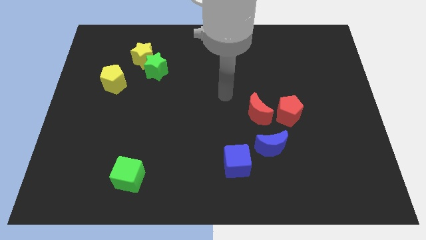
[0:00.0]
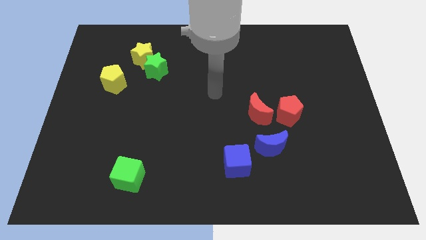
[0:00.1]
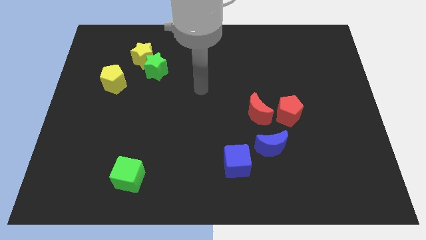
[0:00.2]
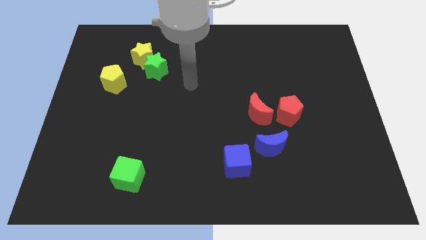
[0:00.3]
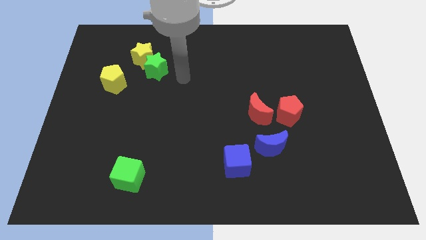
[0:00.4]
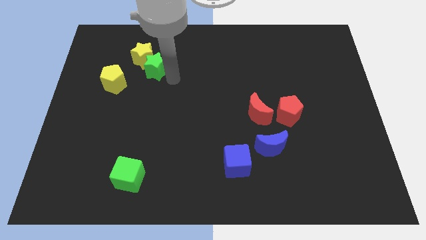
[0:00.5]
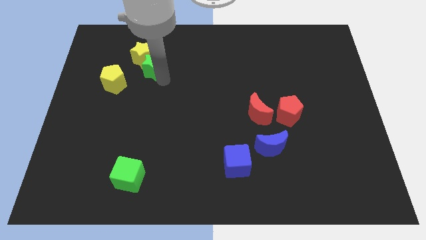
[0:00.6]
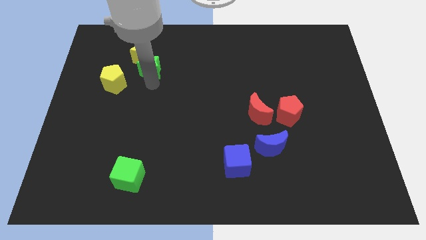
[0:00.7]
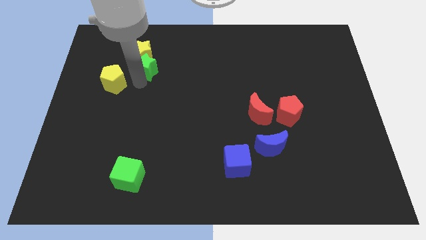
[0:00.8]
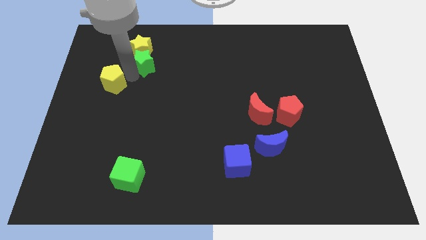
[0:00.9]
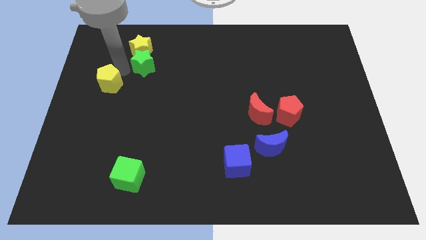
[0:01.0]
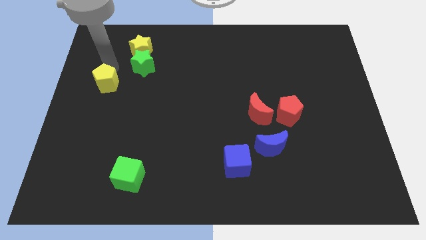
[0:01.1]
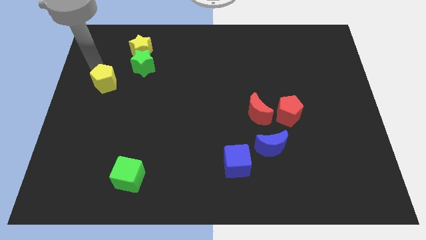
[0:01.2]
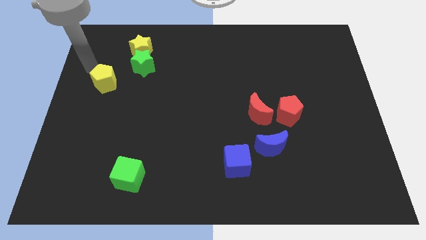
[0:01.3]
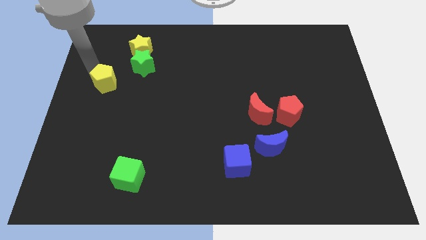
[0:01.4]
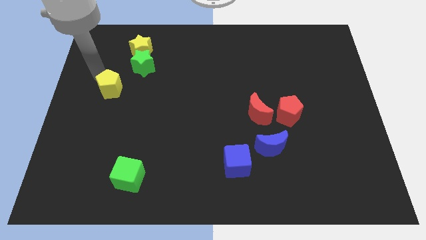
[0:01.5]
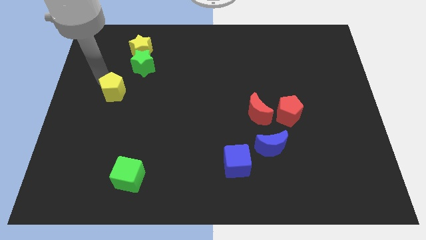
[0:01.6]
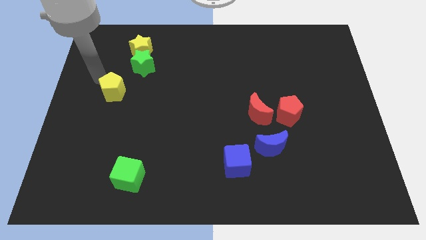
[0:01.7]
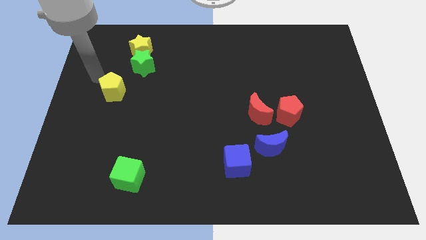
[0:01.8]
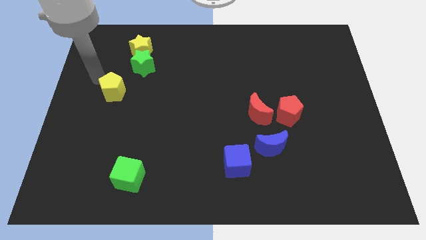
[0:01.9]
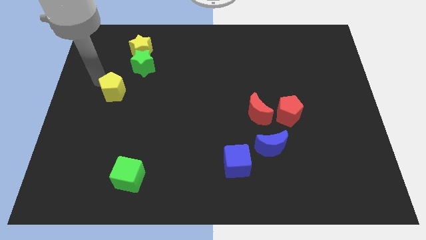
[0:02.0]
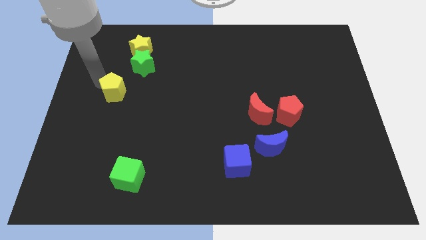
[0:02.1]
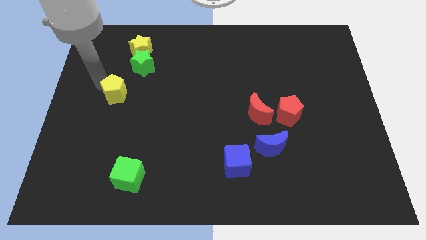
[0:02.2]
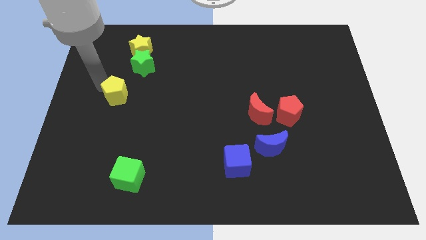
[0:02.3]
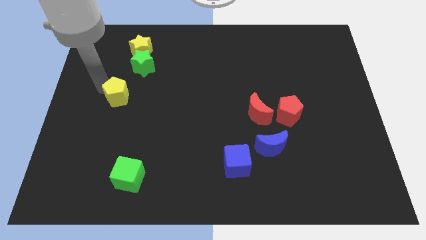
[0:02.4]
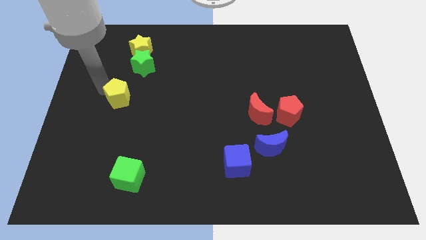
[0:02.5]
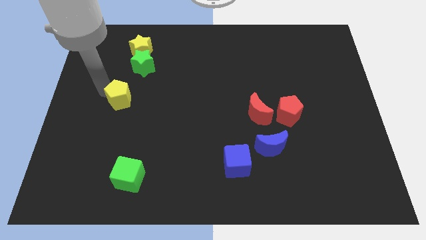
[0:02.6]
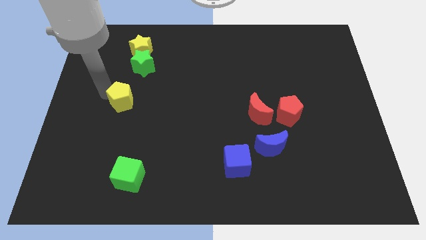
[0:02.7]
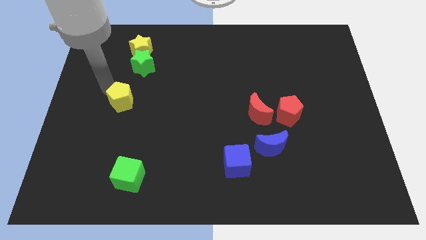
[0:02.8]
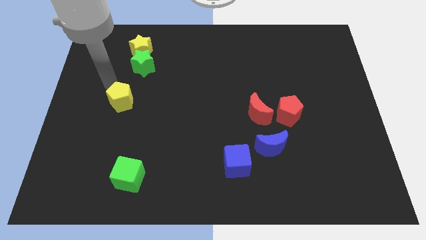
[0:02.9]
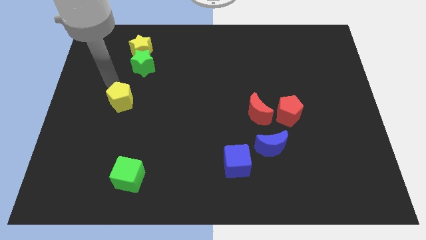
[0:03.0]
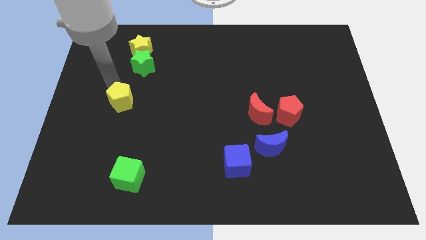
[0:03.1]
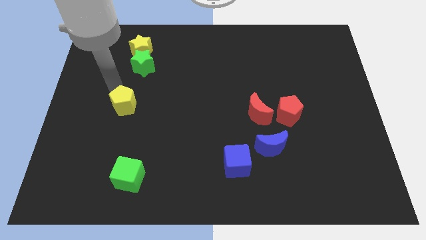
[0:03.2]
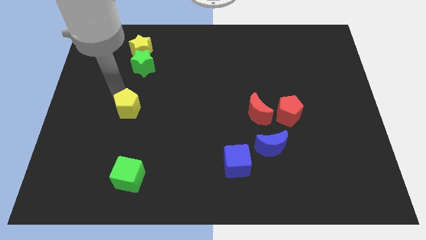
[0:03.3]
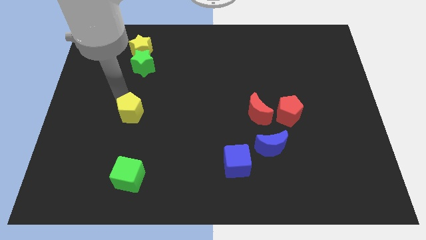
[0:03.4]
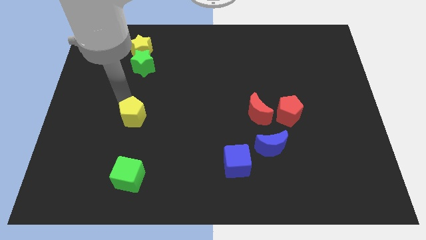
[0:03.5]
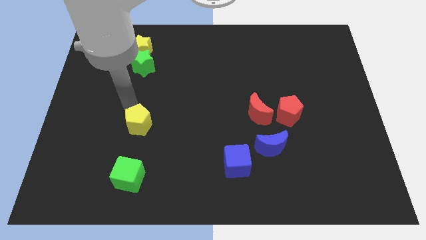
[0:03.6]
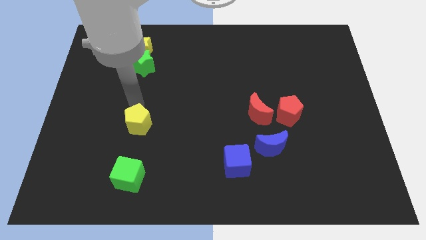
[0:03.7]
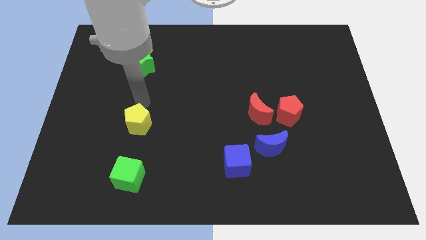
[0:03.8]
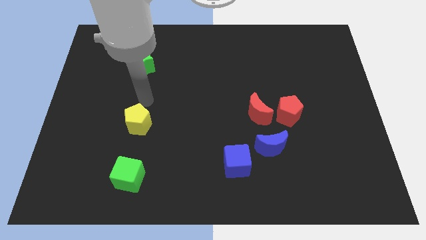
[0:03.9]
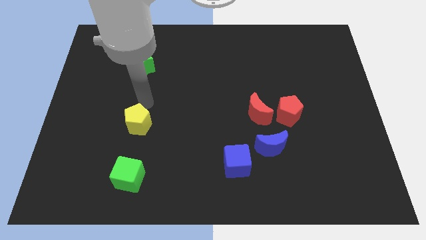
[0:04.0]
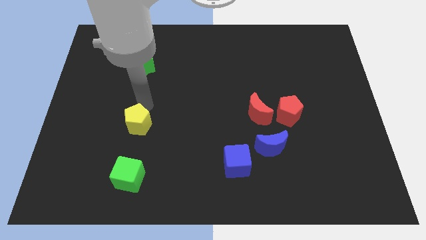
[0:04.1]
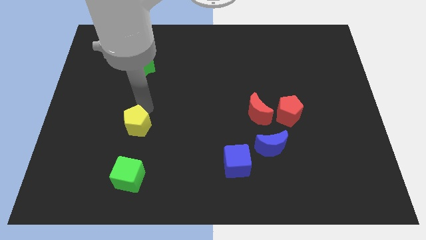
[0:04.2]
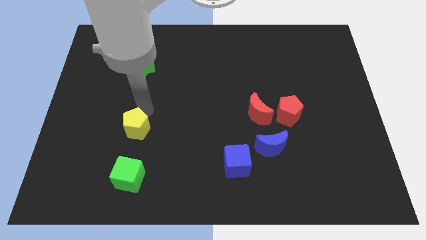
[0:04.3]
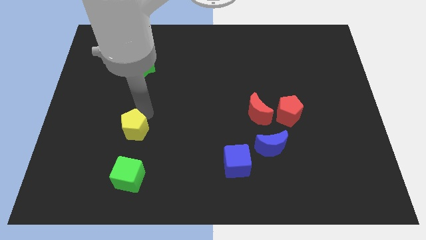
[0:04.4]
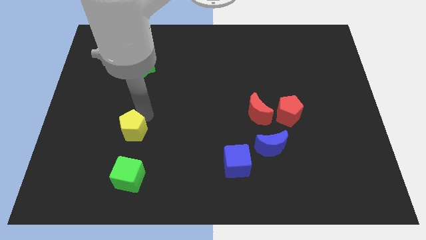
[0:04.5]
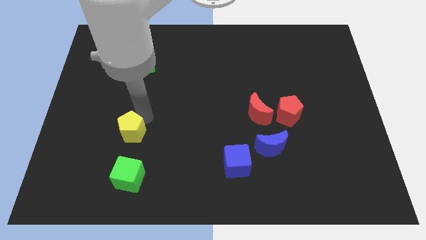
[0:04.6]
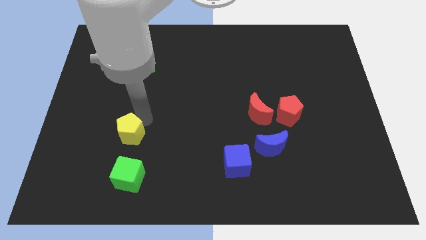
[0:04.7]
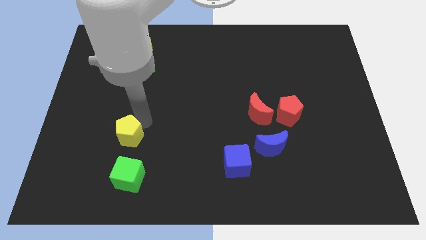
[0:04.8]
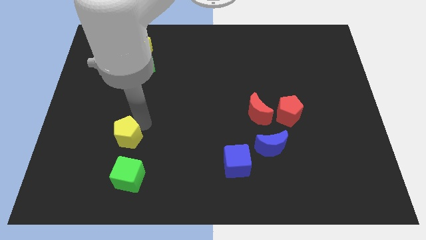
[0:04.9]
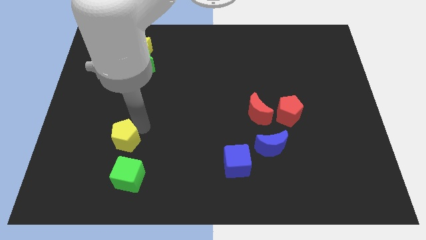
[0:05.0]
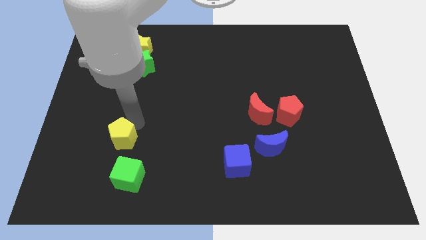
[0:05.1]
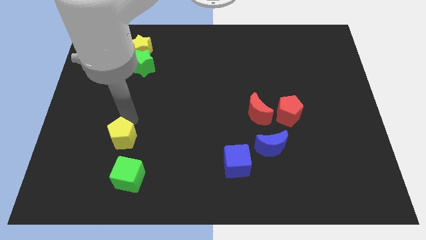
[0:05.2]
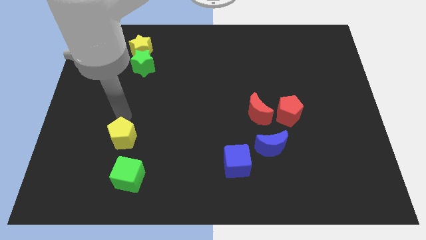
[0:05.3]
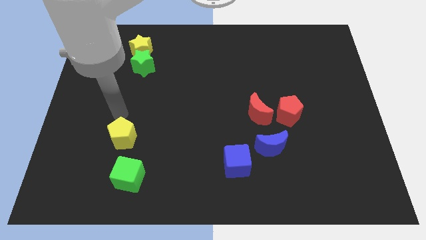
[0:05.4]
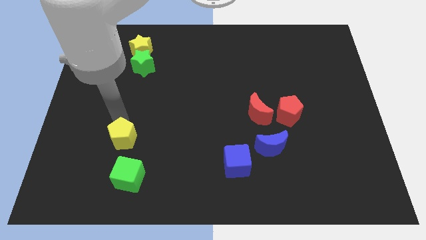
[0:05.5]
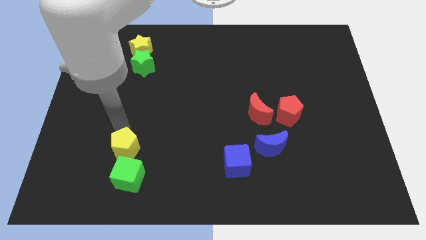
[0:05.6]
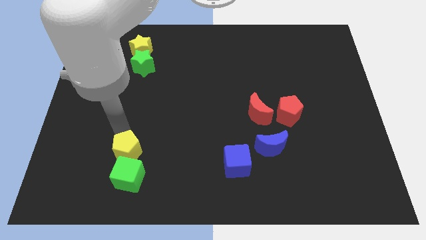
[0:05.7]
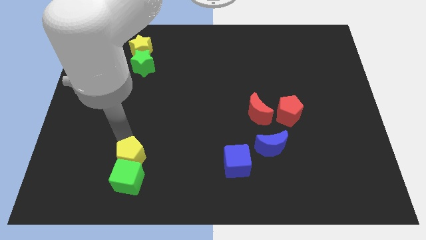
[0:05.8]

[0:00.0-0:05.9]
move the yellow pentagon towards the green cube

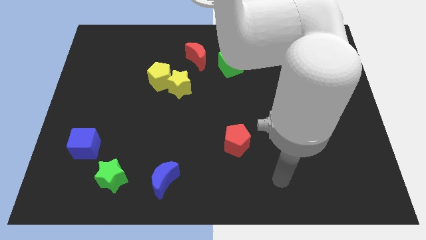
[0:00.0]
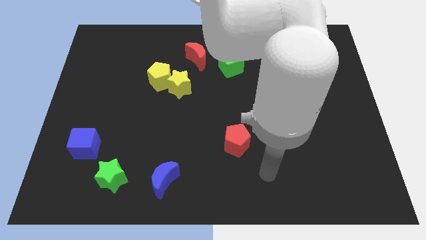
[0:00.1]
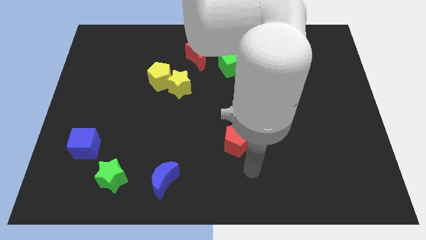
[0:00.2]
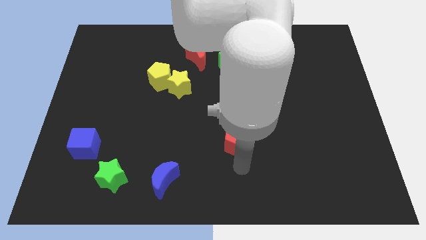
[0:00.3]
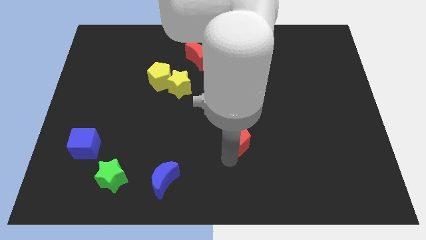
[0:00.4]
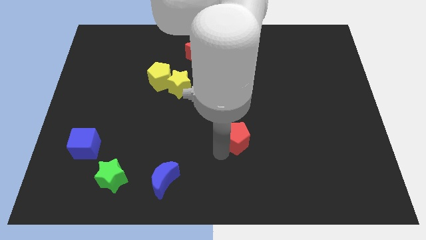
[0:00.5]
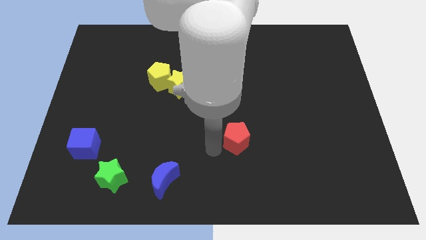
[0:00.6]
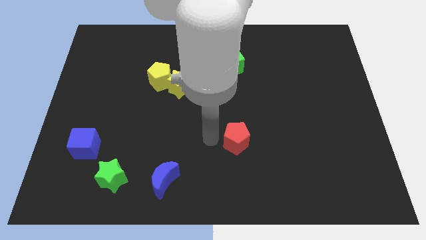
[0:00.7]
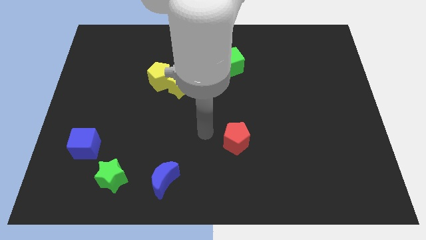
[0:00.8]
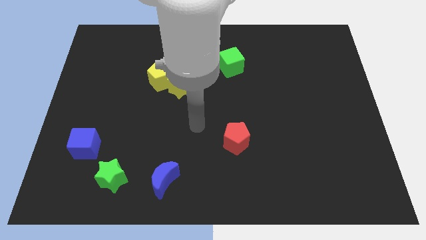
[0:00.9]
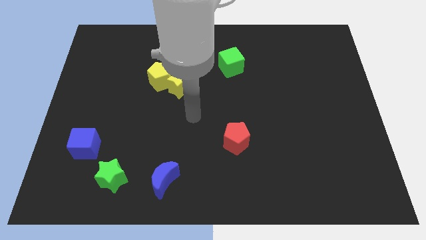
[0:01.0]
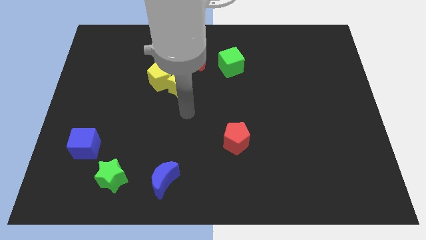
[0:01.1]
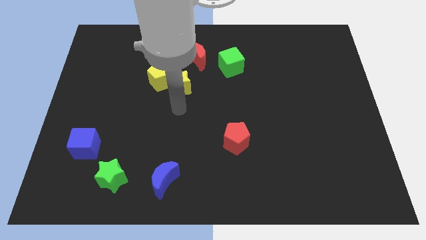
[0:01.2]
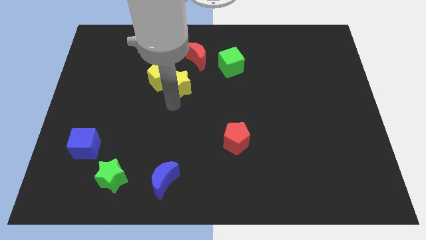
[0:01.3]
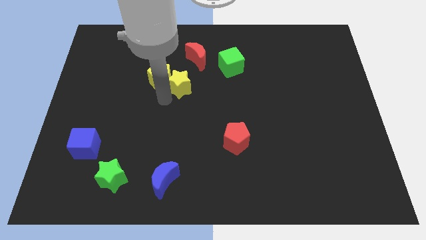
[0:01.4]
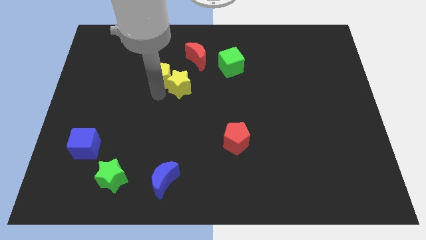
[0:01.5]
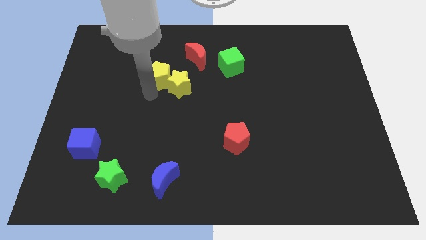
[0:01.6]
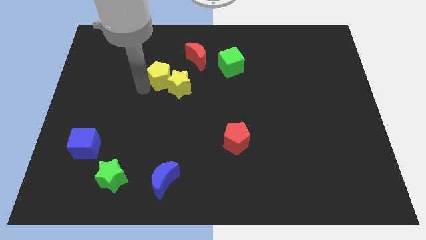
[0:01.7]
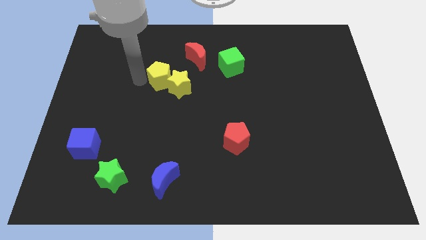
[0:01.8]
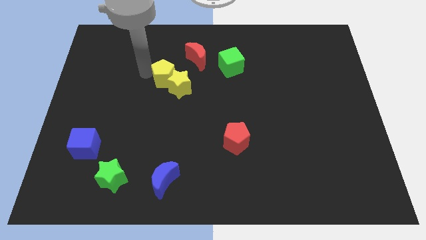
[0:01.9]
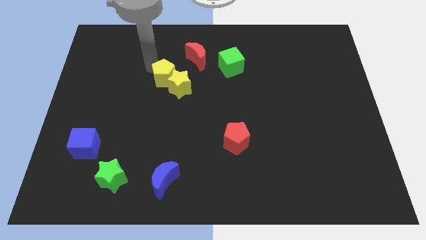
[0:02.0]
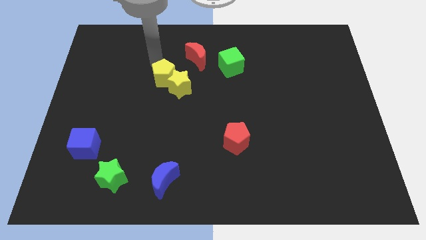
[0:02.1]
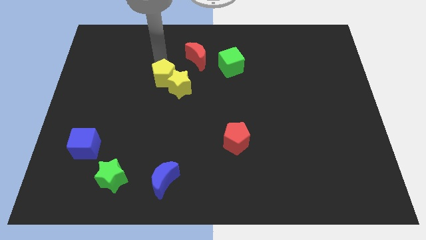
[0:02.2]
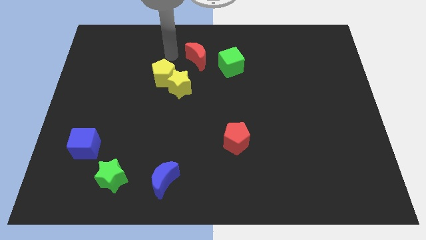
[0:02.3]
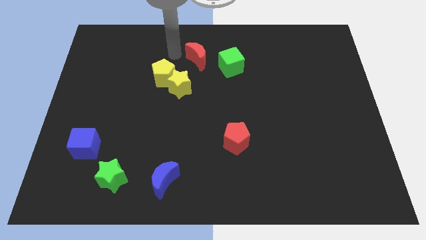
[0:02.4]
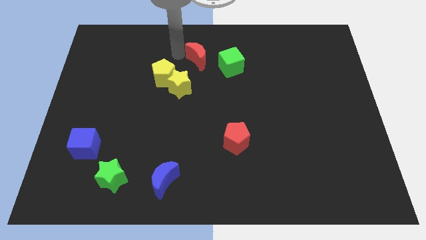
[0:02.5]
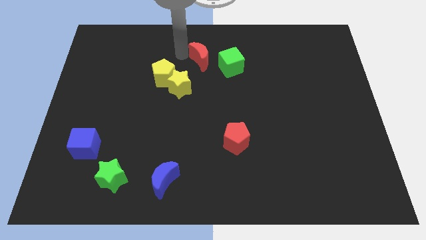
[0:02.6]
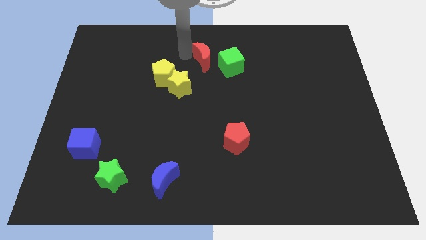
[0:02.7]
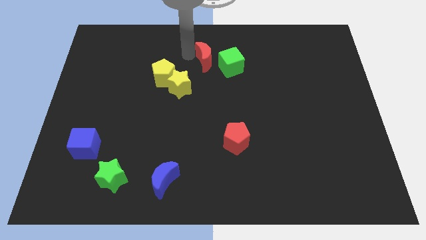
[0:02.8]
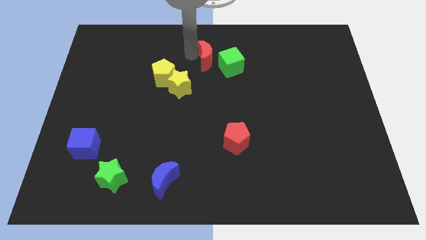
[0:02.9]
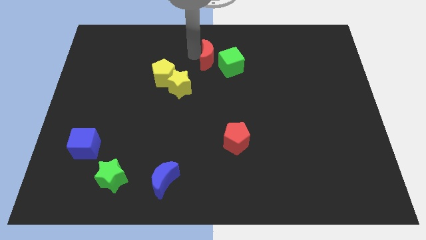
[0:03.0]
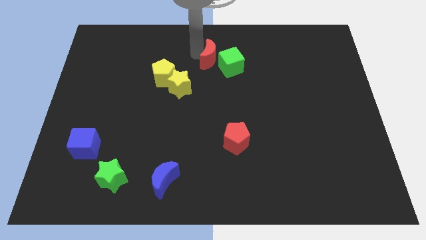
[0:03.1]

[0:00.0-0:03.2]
put the red moon close to the green cube
